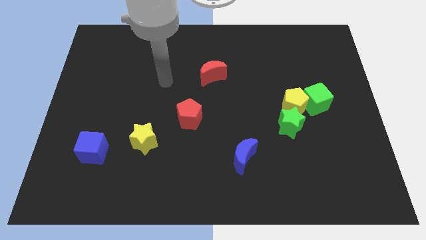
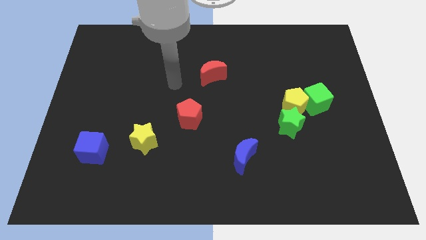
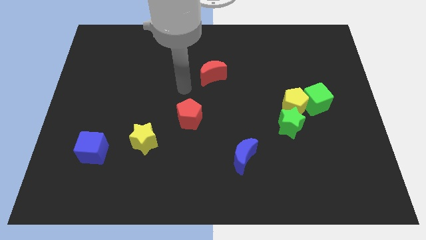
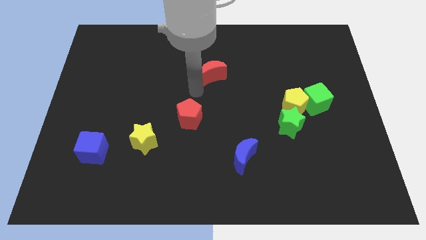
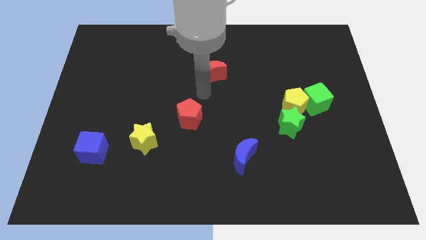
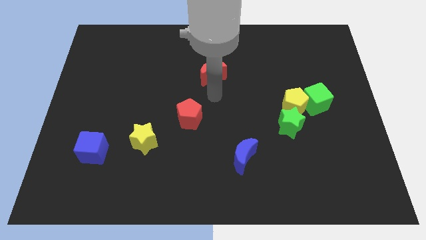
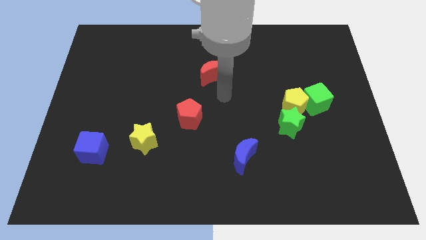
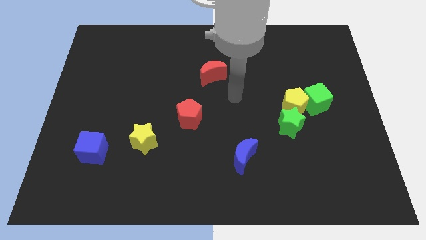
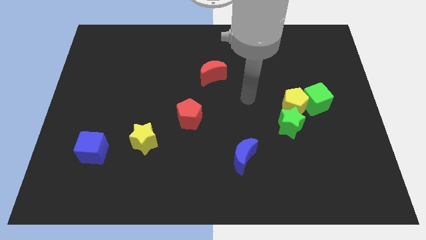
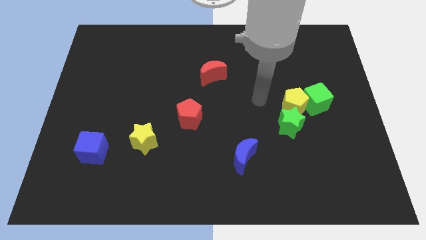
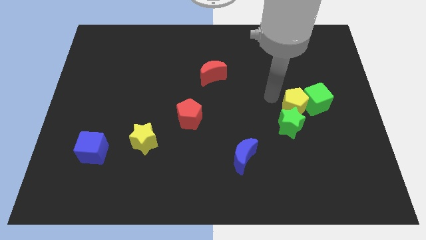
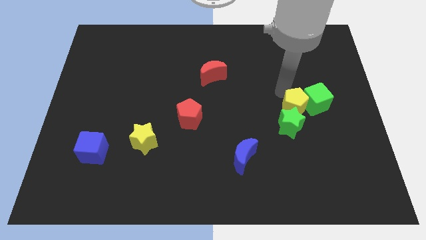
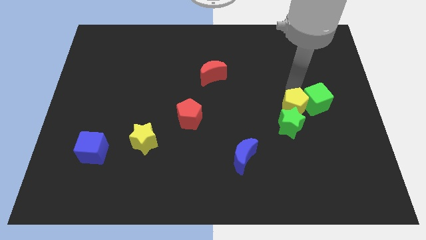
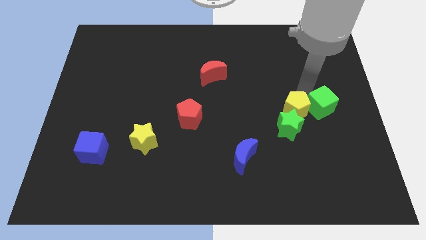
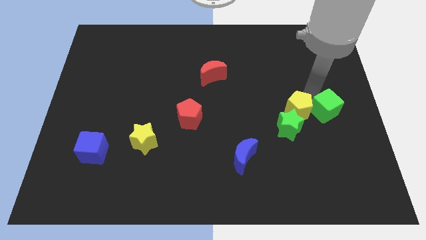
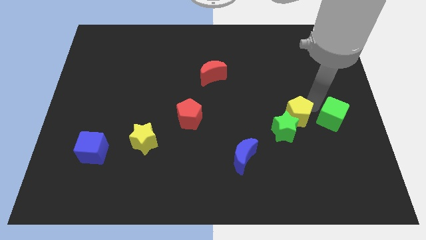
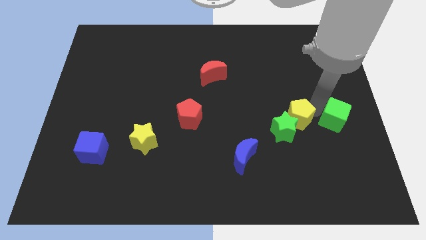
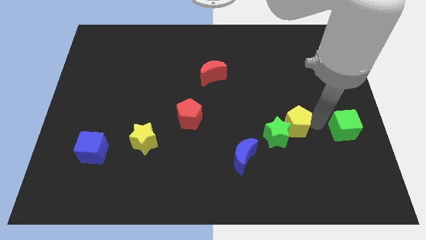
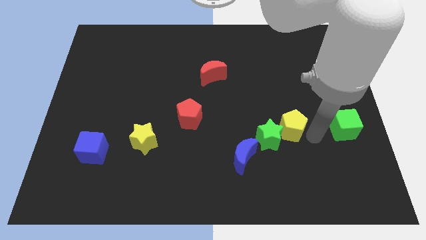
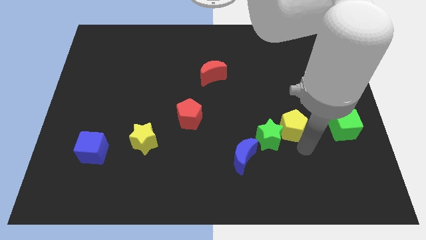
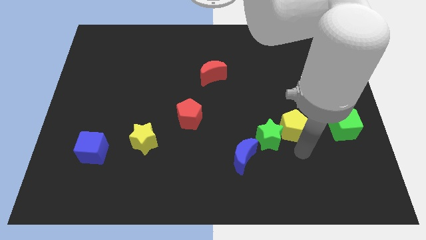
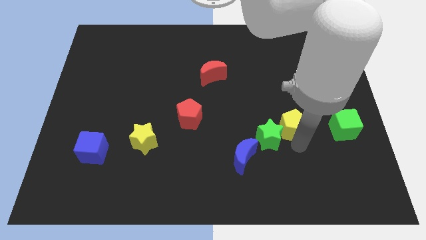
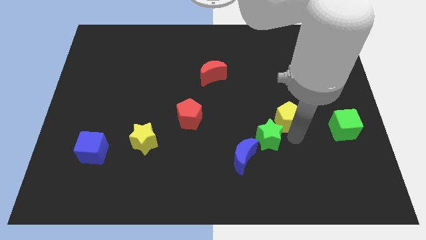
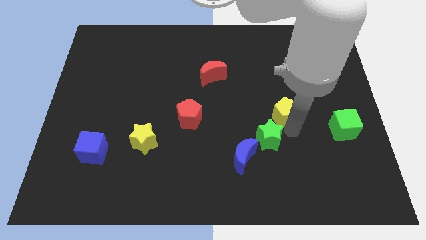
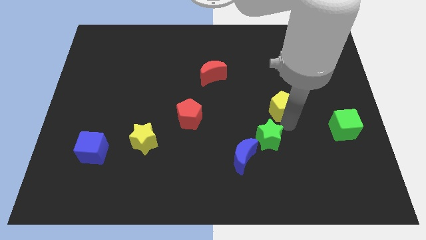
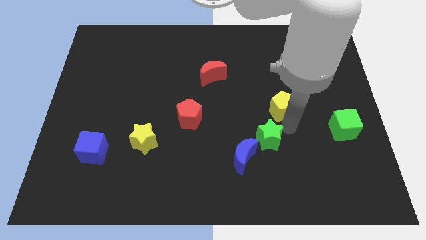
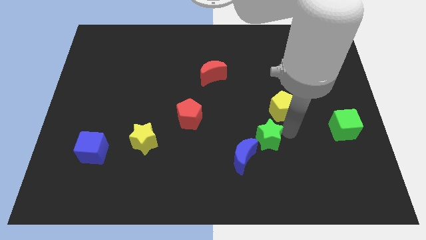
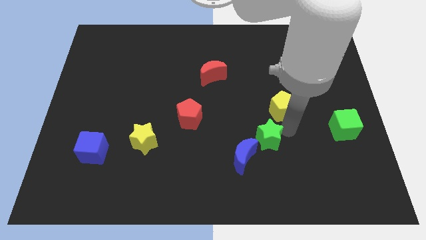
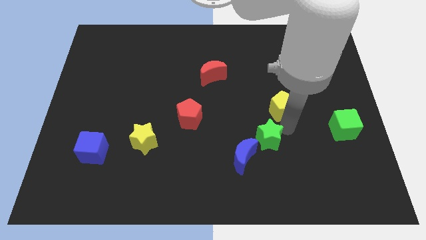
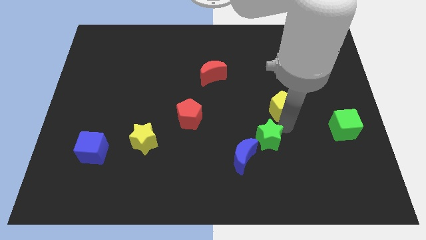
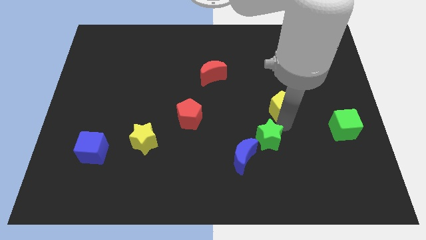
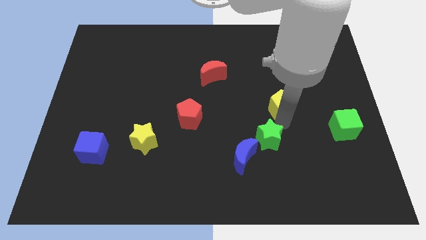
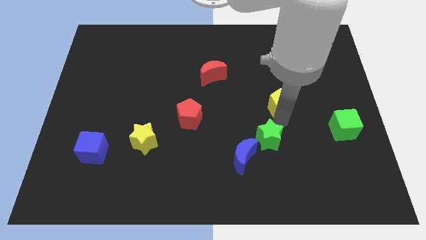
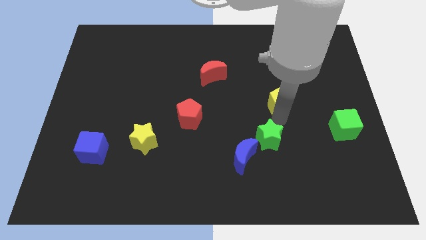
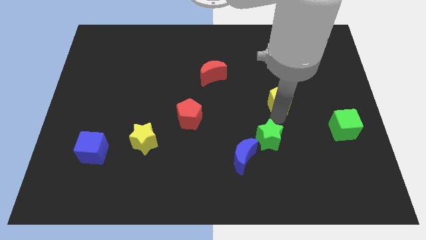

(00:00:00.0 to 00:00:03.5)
move the yellow pentagon away from the green cube and green star

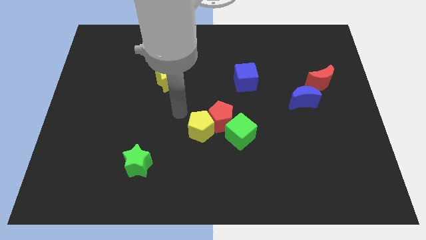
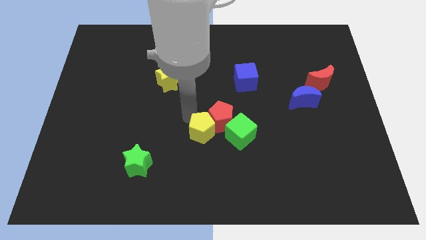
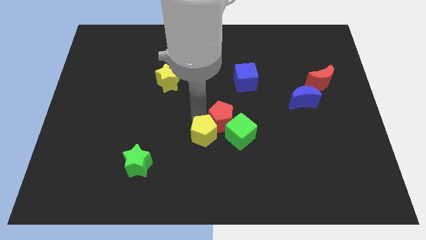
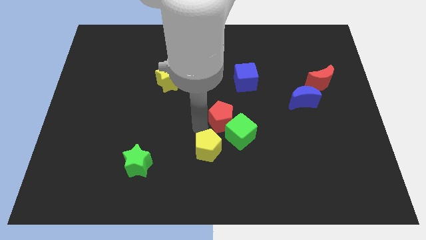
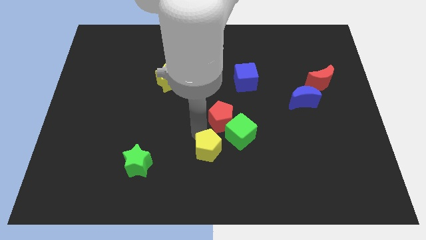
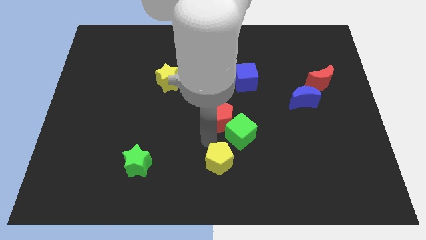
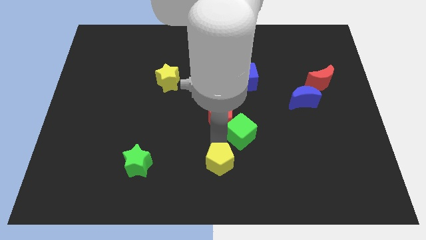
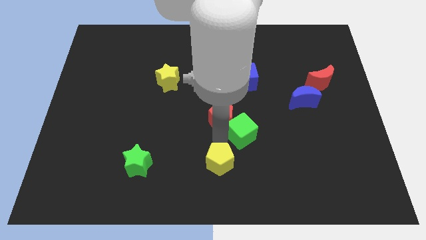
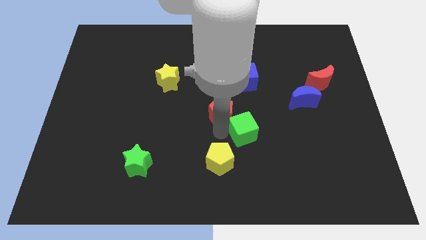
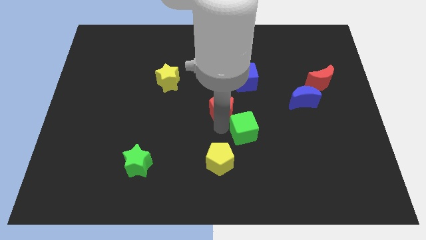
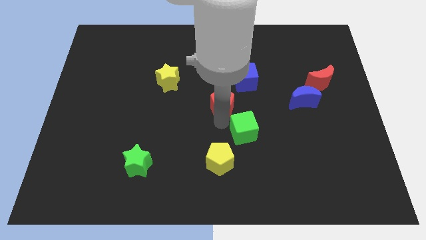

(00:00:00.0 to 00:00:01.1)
separate the red pentagon from the yellow pentagon and green cube

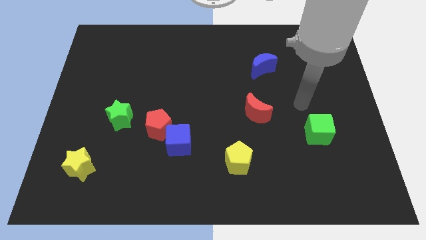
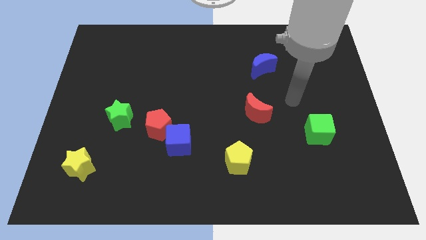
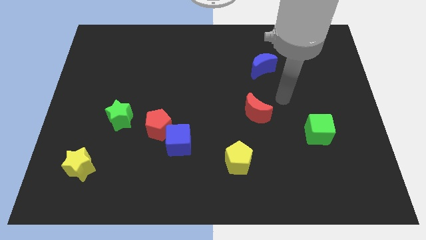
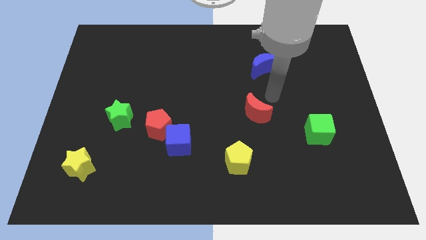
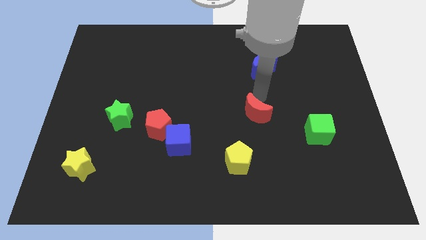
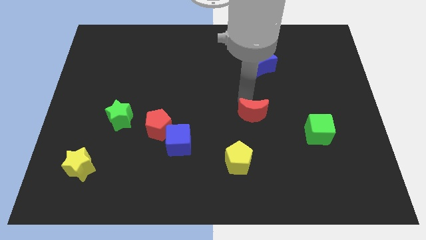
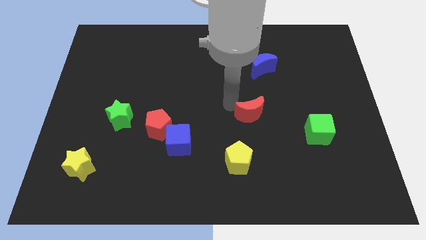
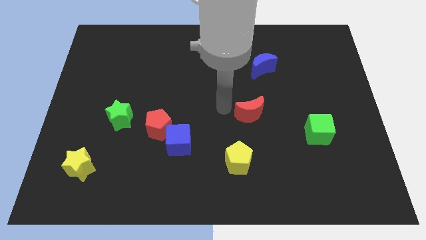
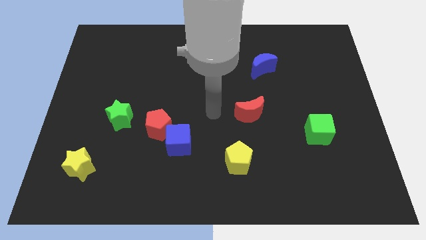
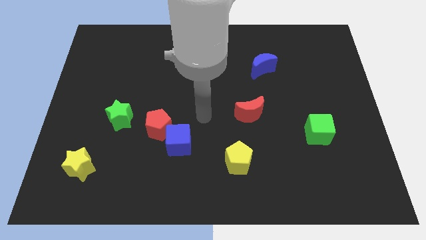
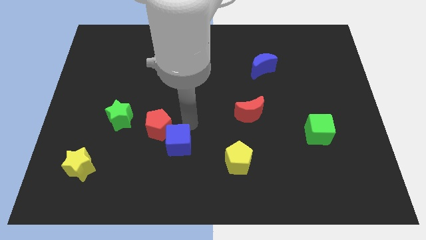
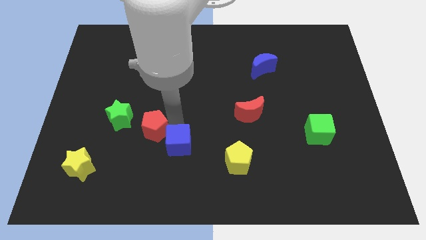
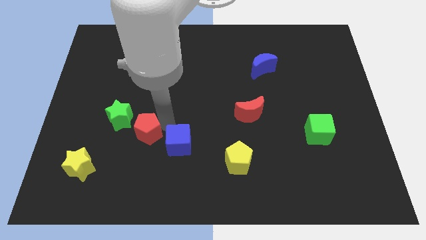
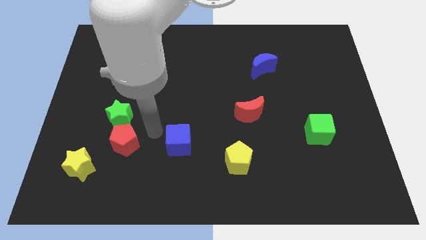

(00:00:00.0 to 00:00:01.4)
move the blue cube away from the red pentagon

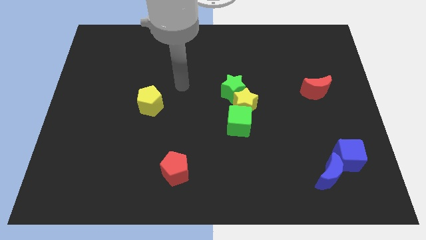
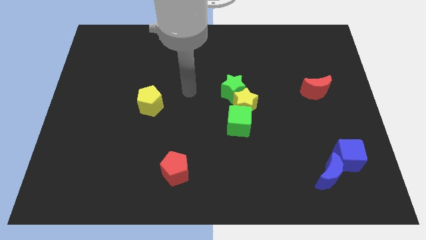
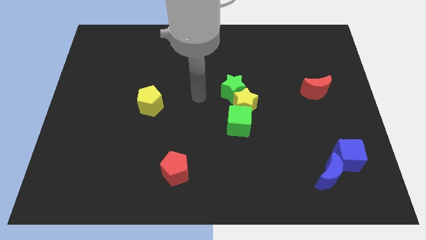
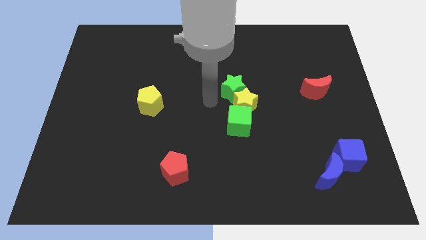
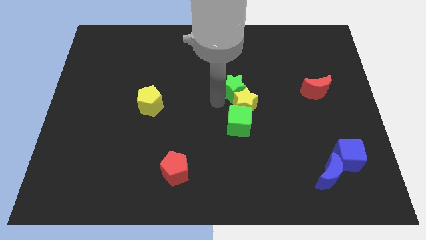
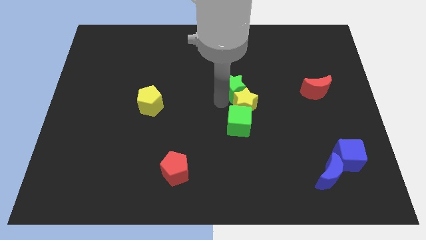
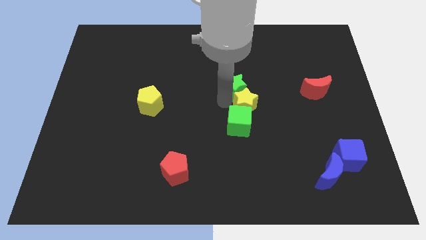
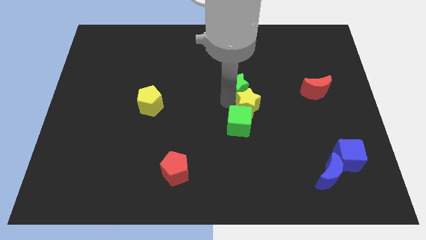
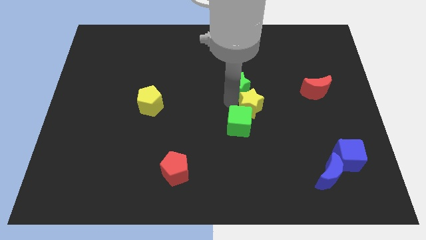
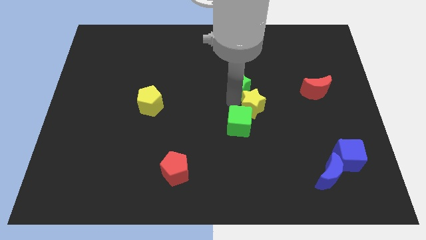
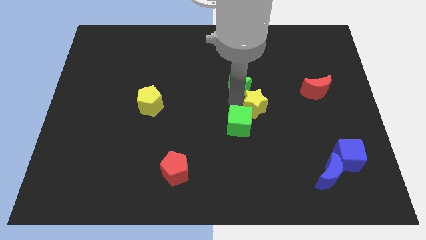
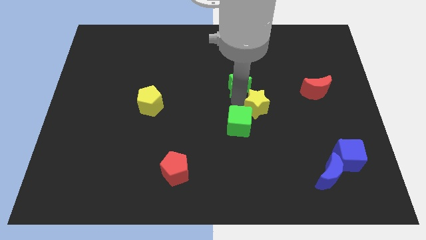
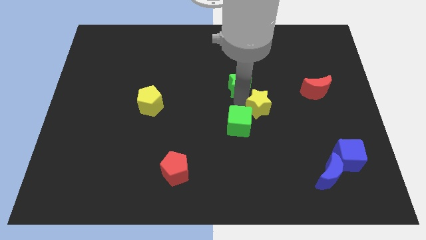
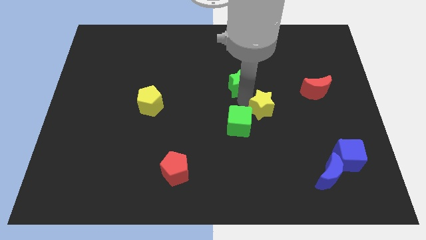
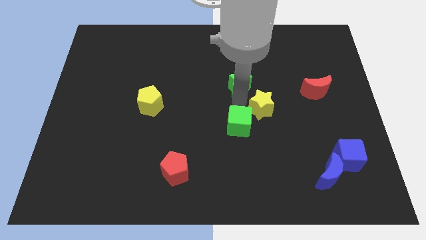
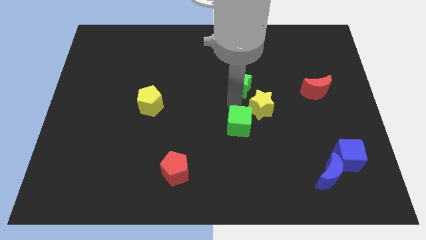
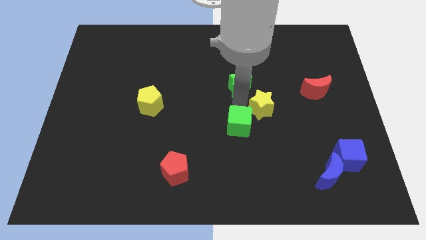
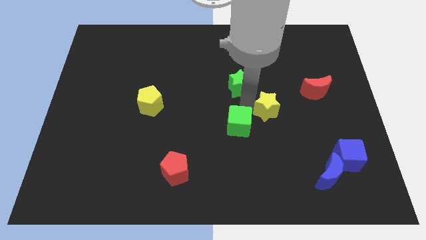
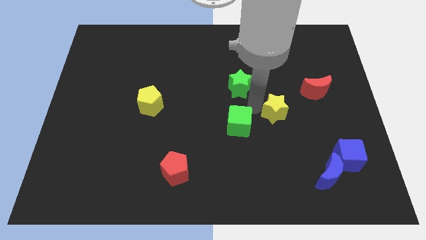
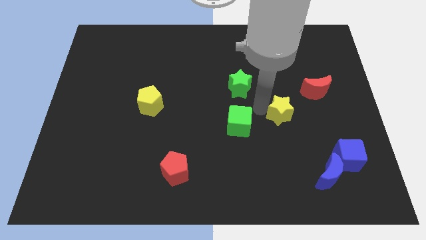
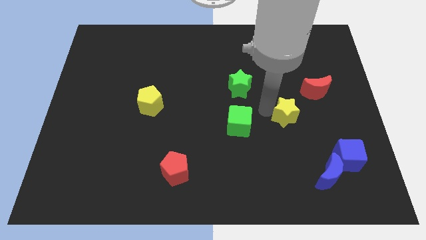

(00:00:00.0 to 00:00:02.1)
move the yellow star away from the green cube and green star

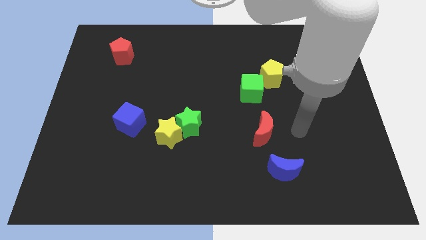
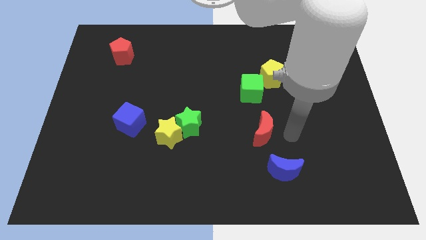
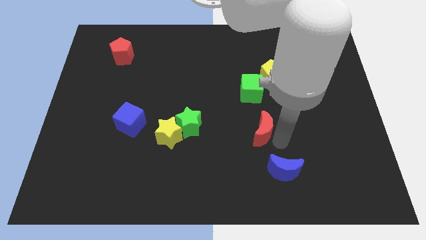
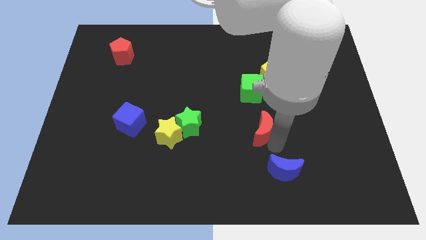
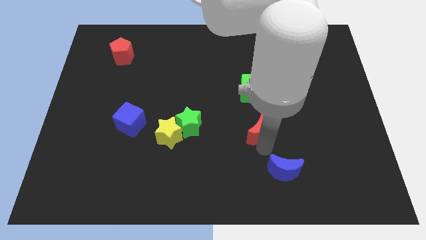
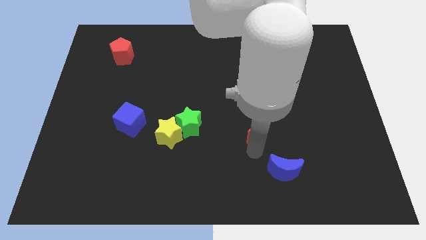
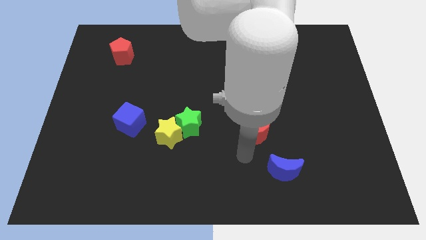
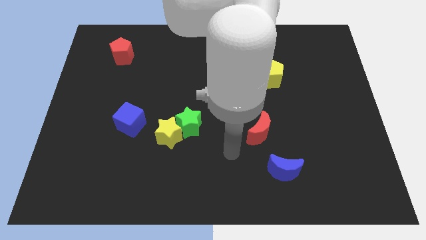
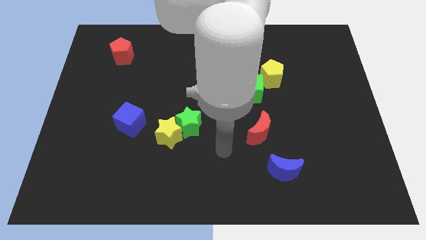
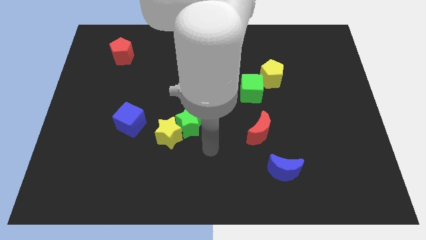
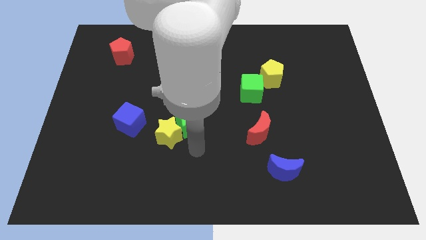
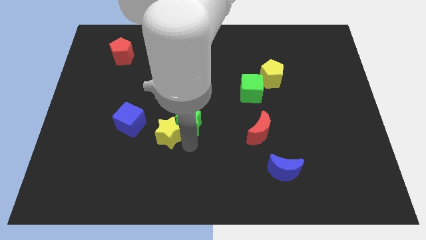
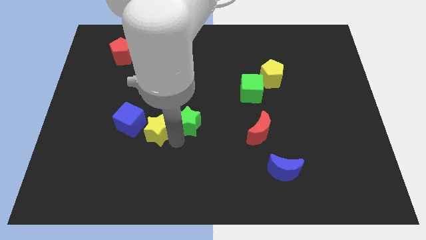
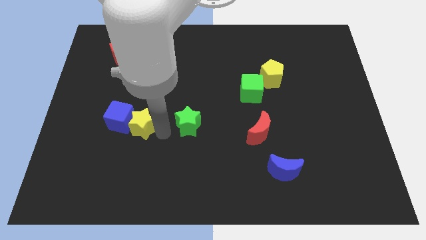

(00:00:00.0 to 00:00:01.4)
move the green star away from the yellow star
